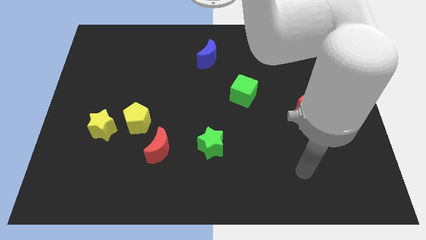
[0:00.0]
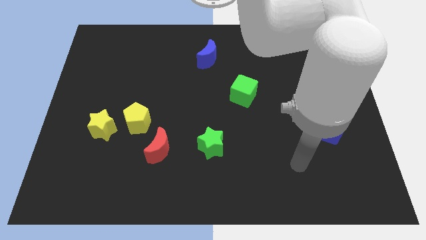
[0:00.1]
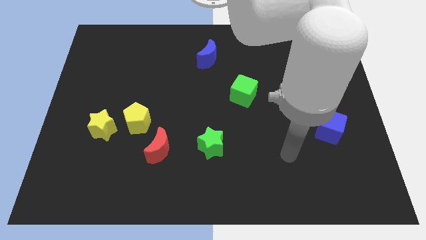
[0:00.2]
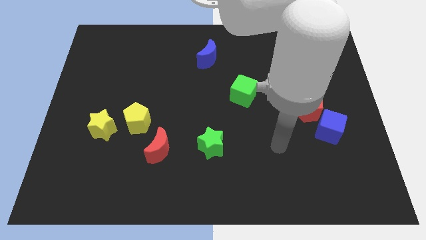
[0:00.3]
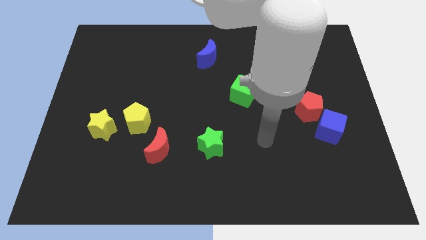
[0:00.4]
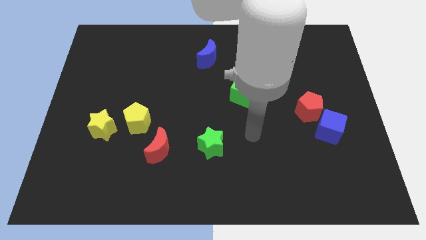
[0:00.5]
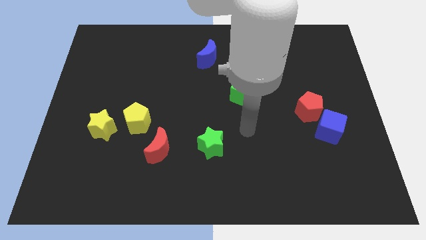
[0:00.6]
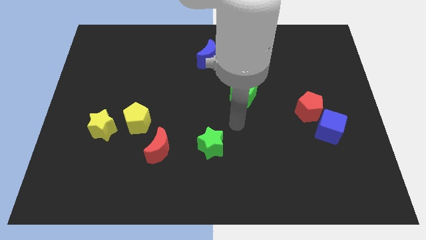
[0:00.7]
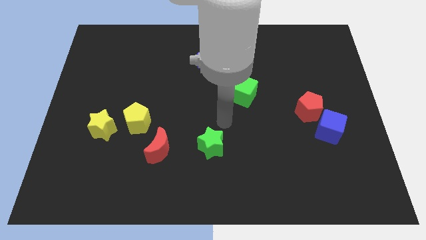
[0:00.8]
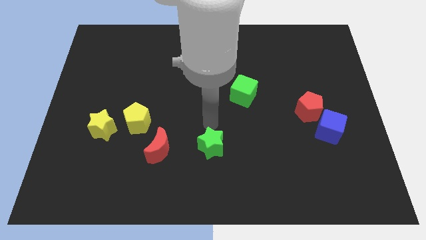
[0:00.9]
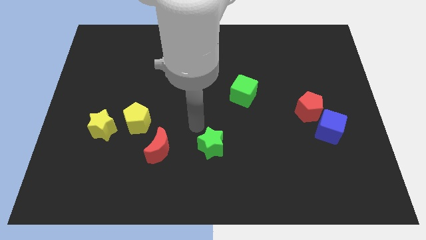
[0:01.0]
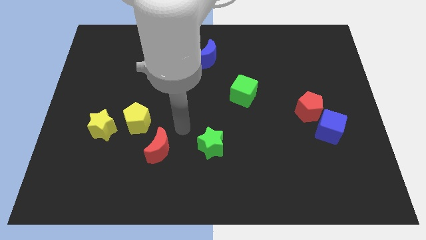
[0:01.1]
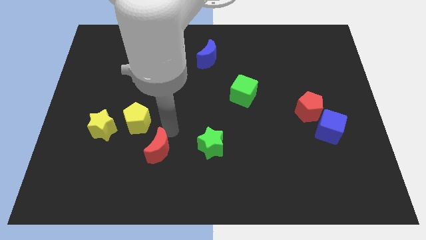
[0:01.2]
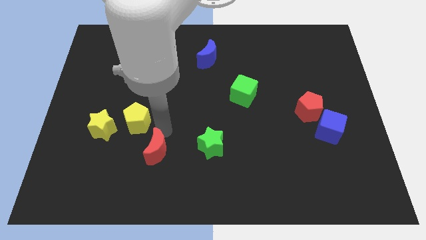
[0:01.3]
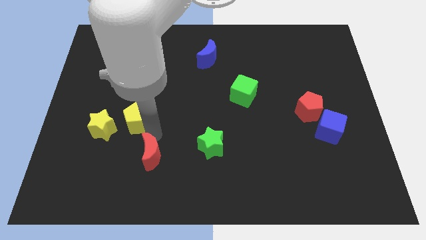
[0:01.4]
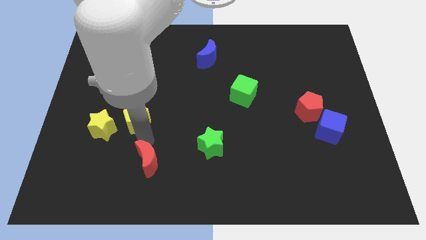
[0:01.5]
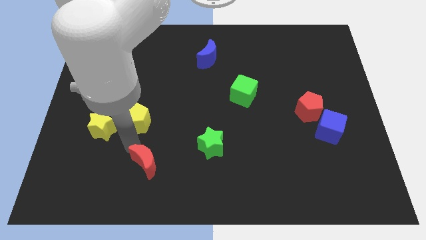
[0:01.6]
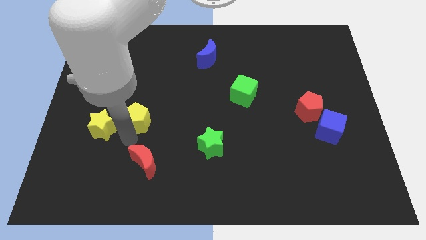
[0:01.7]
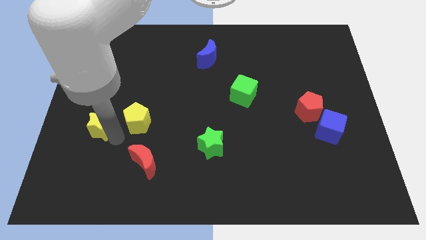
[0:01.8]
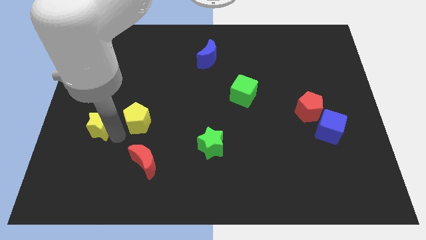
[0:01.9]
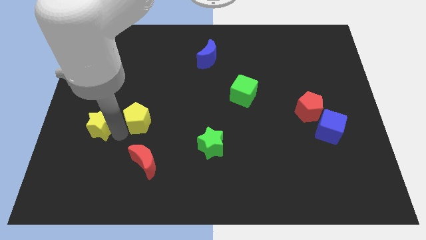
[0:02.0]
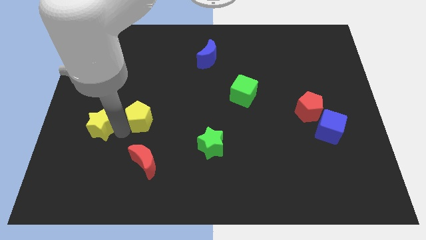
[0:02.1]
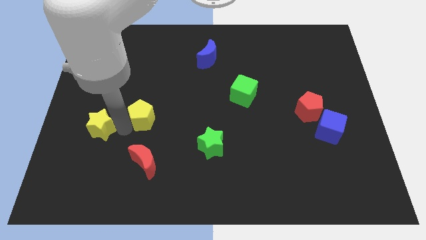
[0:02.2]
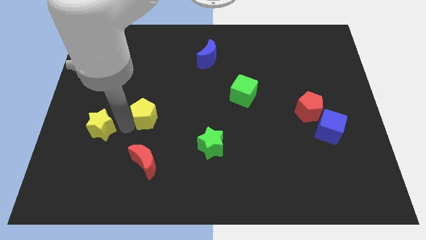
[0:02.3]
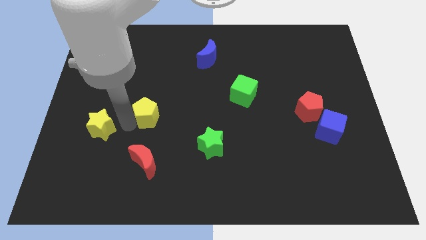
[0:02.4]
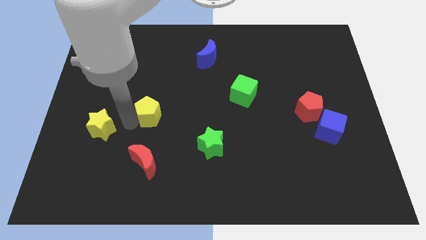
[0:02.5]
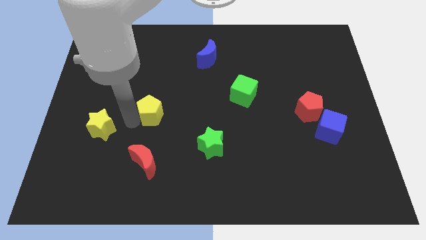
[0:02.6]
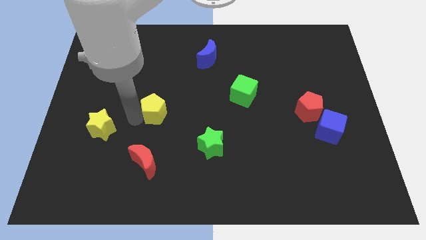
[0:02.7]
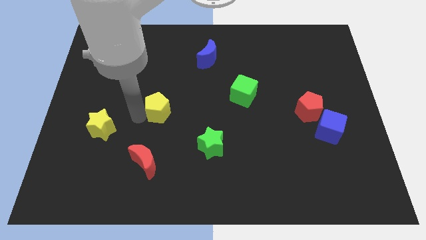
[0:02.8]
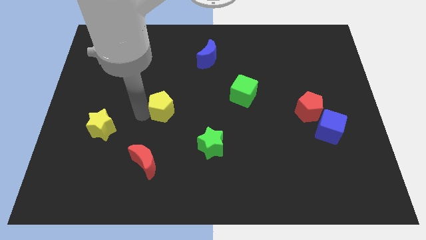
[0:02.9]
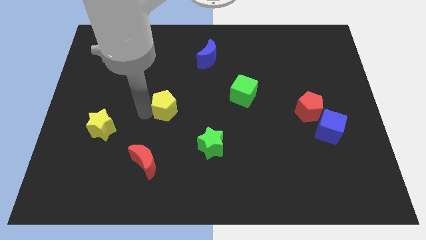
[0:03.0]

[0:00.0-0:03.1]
slightly slide the yellow pentagon diagonally up and to the right

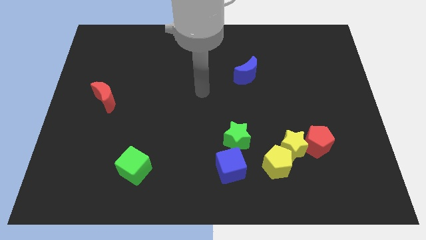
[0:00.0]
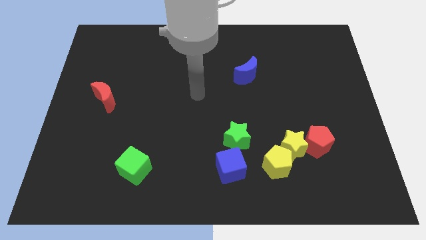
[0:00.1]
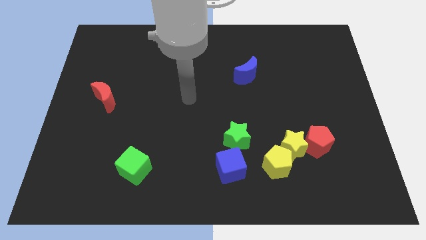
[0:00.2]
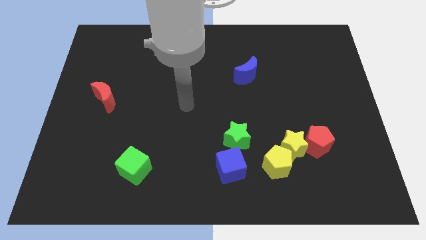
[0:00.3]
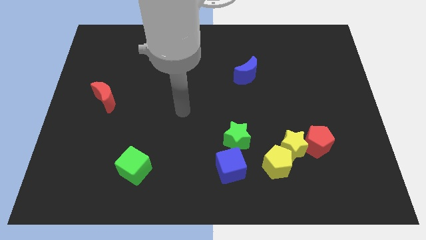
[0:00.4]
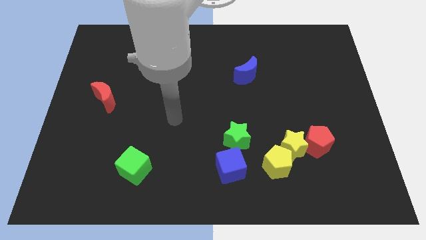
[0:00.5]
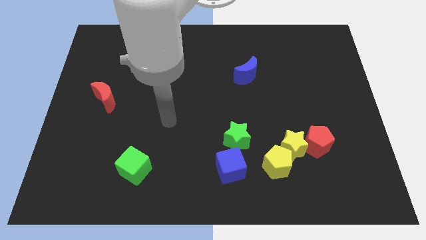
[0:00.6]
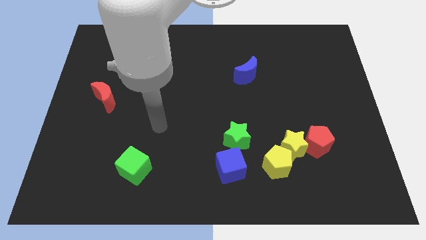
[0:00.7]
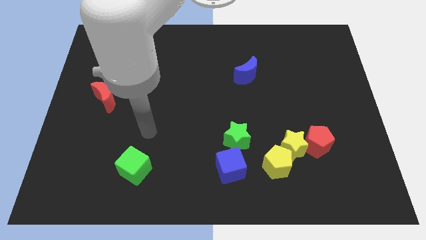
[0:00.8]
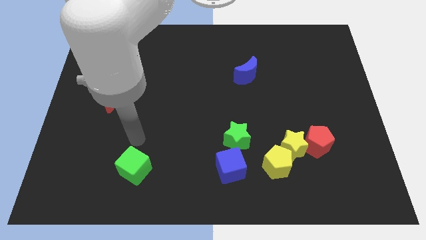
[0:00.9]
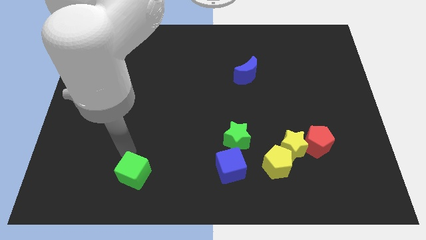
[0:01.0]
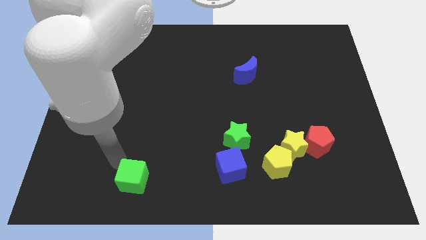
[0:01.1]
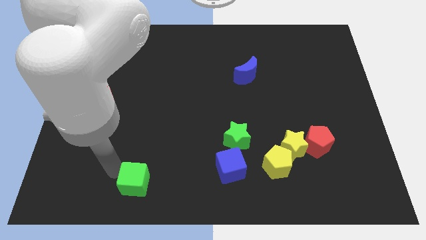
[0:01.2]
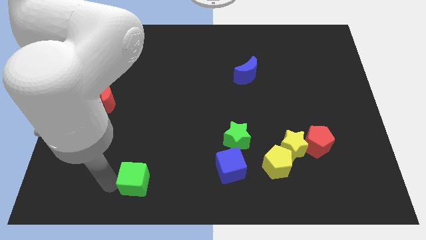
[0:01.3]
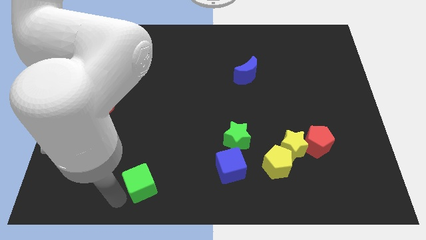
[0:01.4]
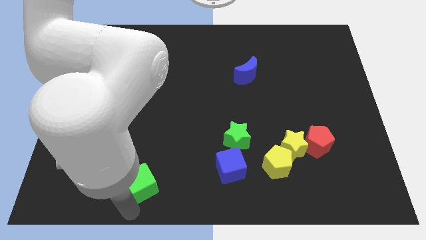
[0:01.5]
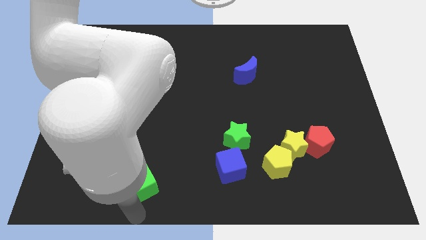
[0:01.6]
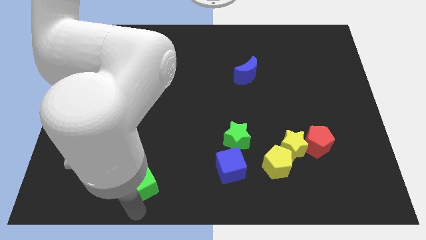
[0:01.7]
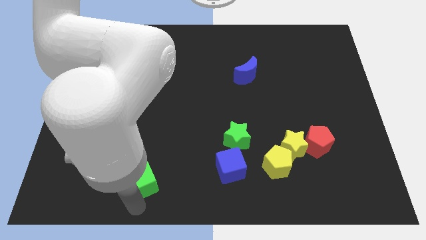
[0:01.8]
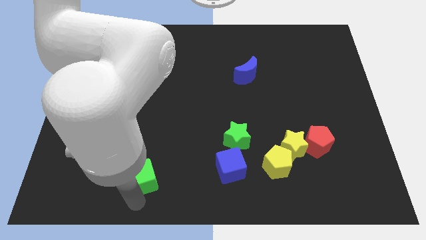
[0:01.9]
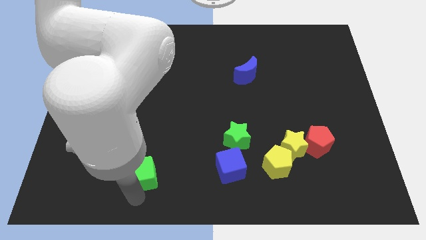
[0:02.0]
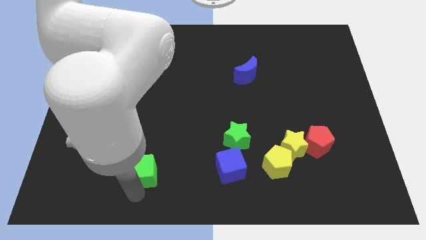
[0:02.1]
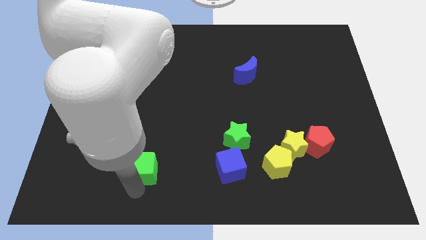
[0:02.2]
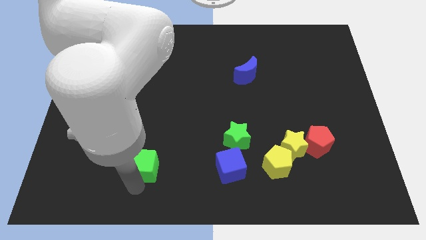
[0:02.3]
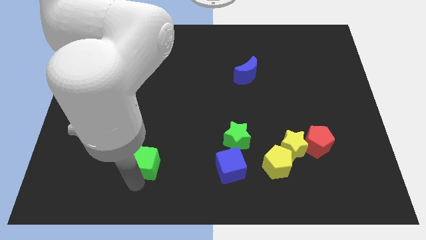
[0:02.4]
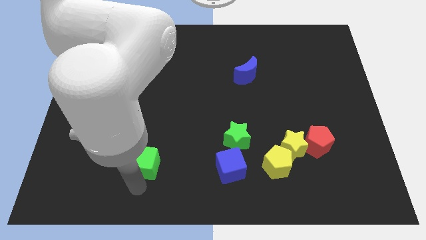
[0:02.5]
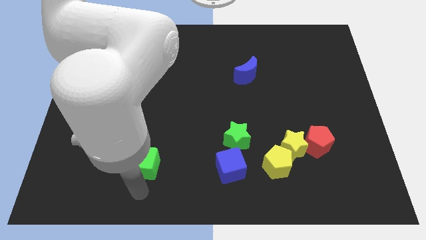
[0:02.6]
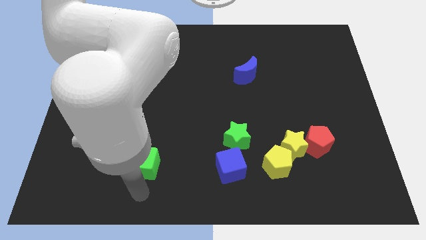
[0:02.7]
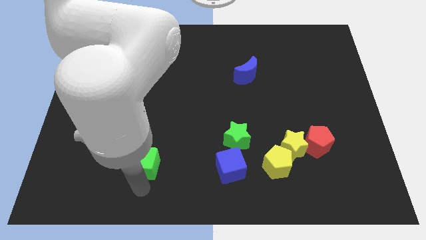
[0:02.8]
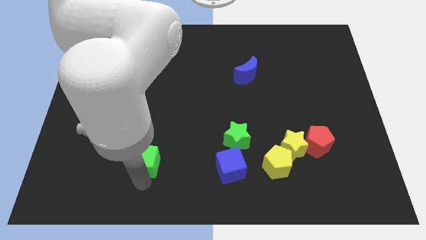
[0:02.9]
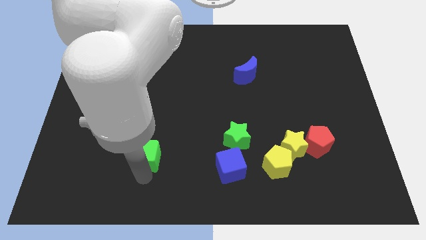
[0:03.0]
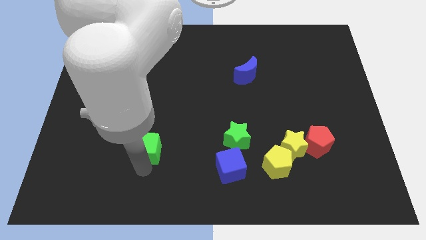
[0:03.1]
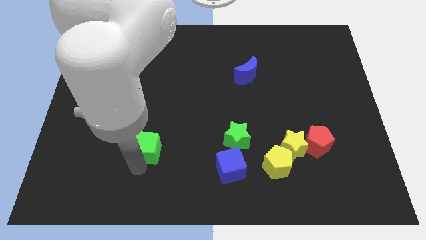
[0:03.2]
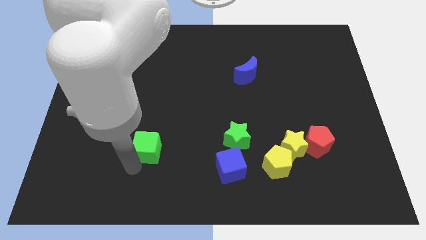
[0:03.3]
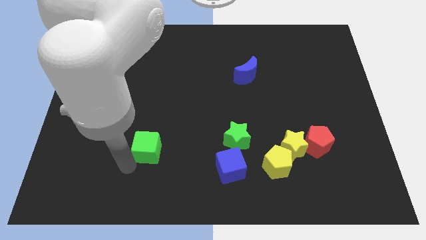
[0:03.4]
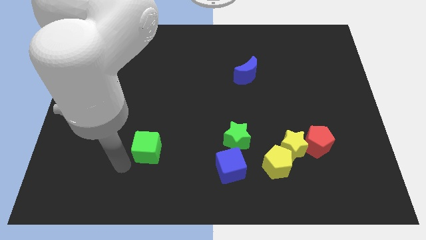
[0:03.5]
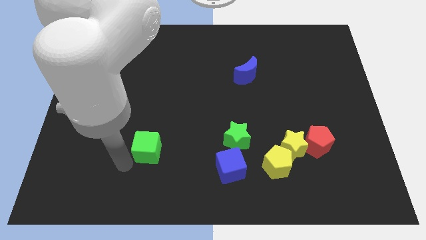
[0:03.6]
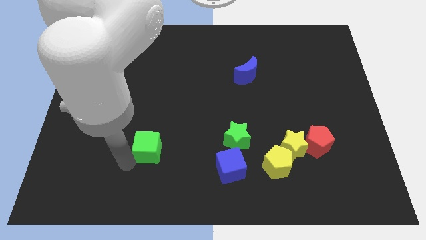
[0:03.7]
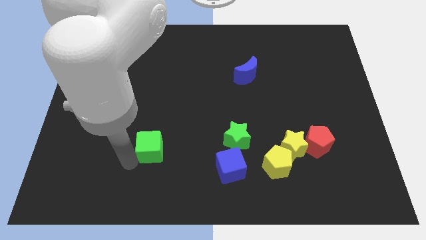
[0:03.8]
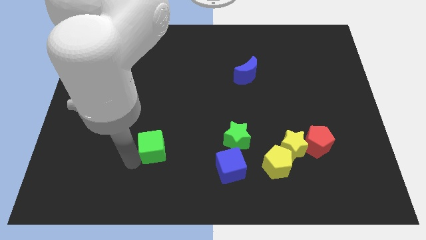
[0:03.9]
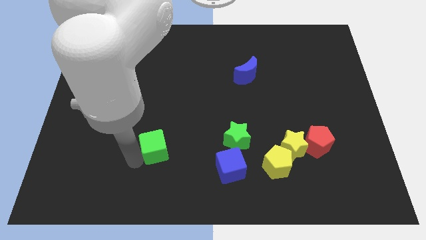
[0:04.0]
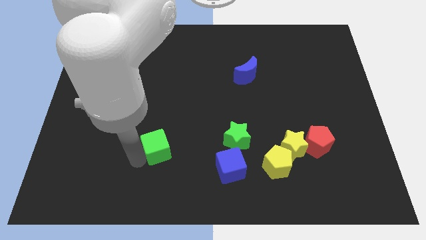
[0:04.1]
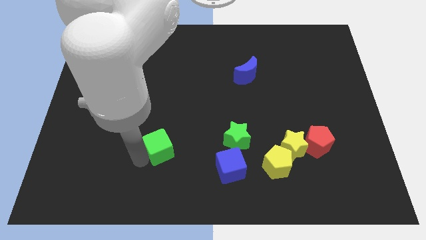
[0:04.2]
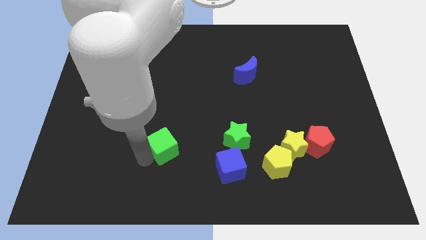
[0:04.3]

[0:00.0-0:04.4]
slightly move the green cube up and right diagonally
